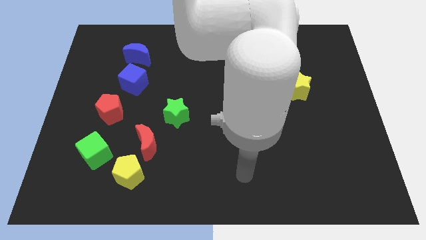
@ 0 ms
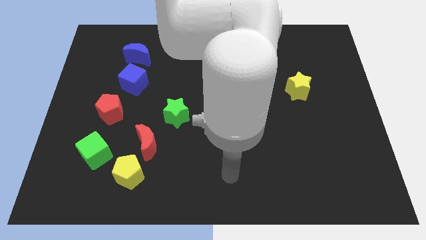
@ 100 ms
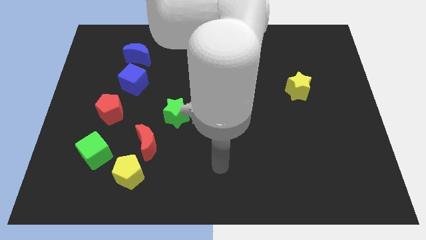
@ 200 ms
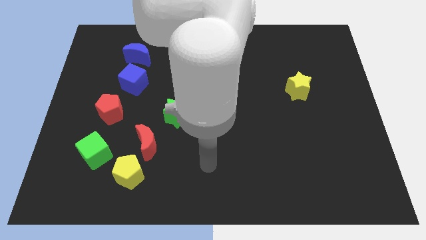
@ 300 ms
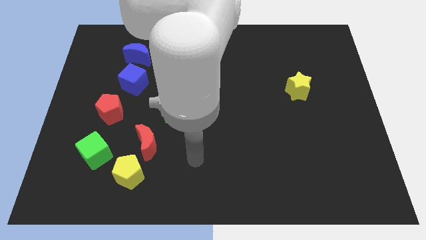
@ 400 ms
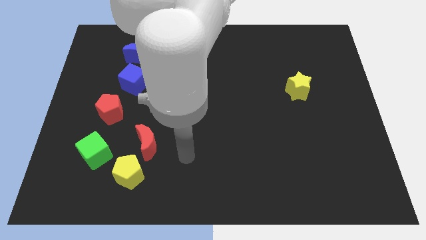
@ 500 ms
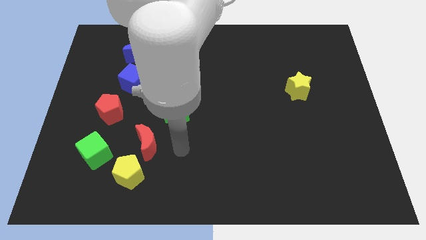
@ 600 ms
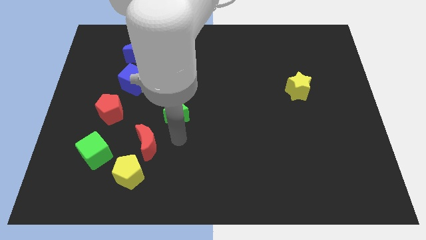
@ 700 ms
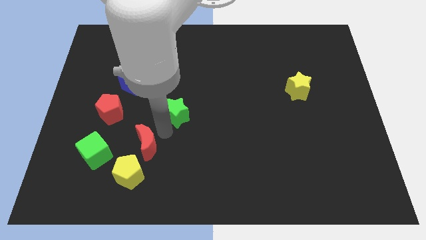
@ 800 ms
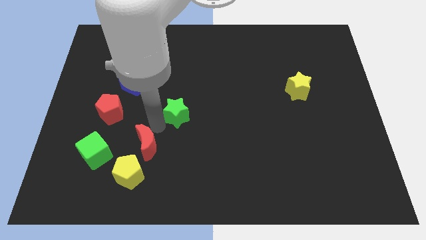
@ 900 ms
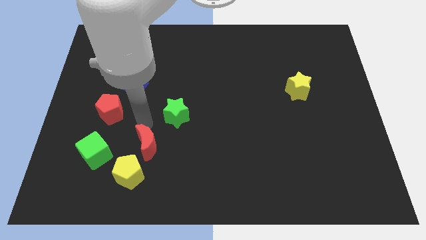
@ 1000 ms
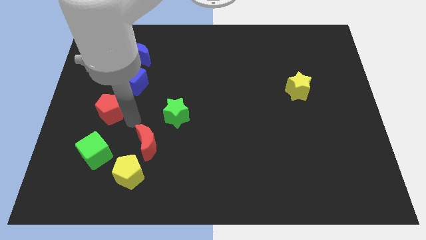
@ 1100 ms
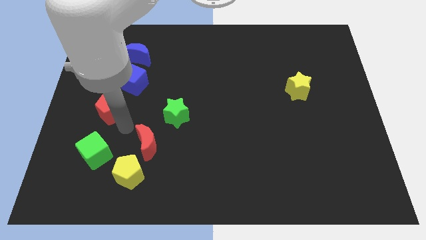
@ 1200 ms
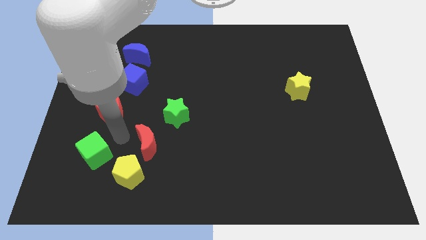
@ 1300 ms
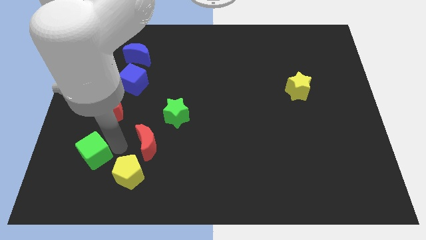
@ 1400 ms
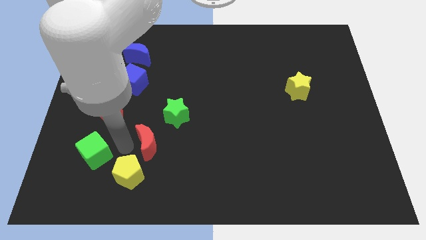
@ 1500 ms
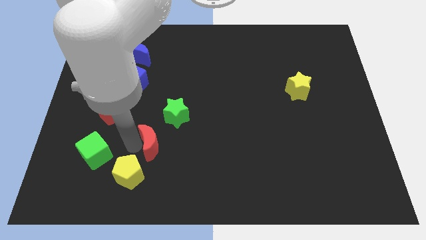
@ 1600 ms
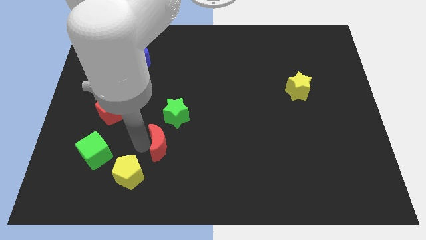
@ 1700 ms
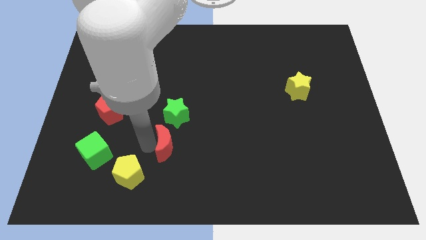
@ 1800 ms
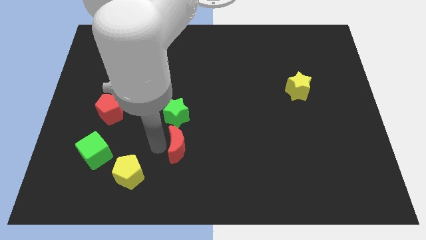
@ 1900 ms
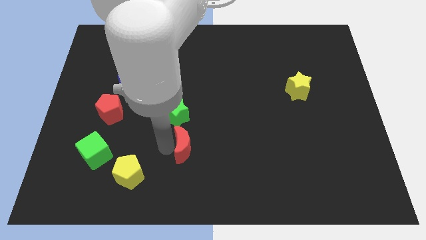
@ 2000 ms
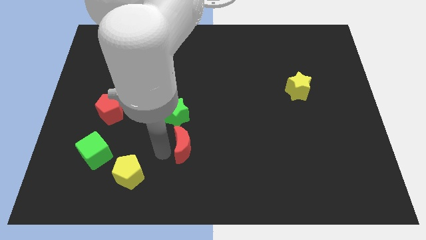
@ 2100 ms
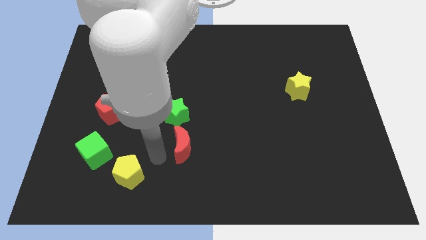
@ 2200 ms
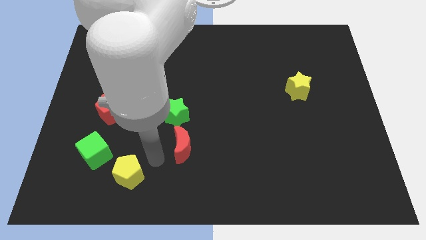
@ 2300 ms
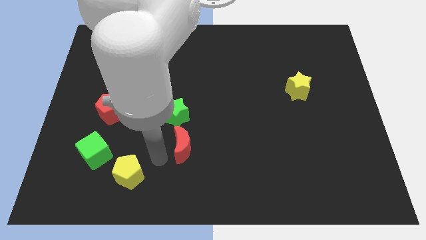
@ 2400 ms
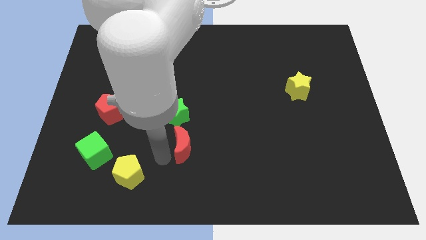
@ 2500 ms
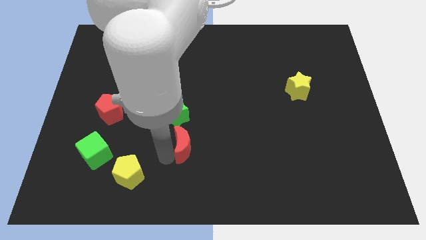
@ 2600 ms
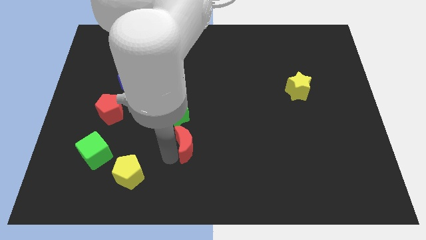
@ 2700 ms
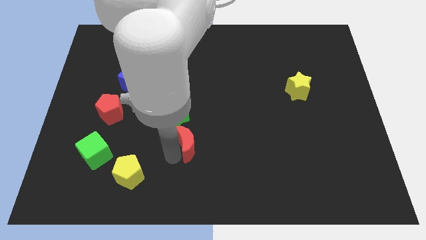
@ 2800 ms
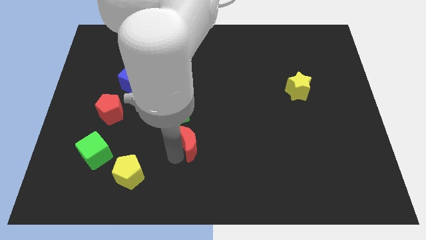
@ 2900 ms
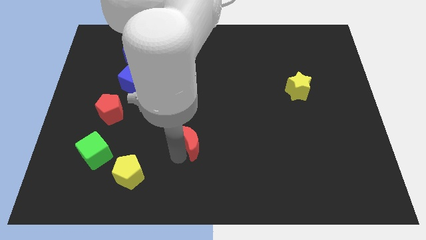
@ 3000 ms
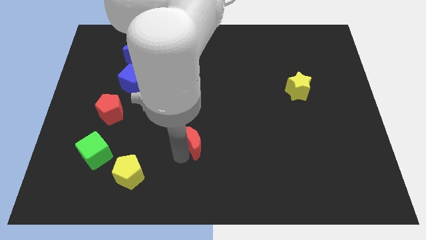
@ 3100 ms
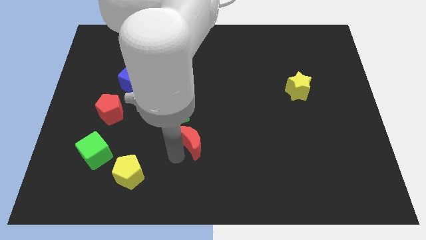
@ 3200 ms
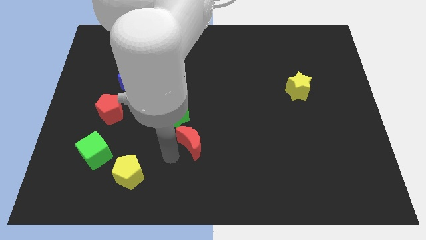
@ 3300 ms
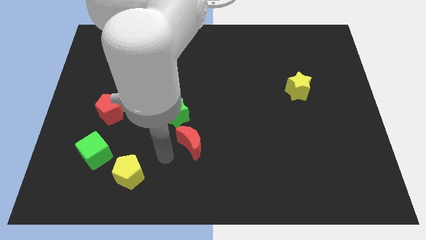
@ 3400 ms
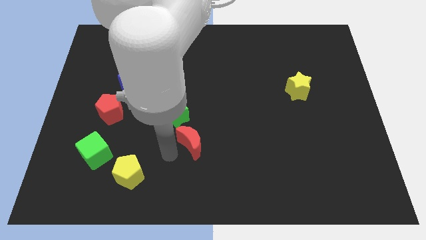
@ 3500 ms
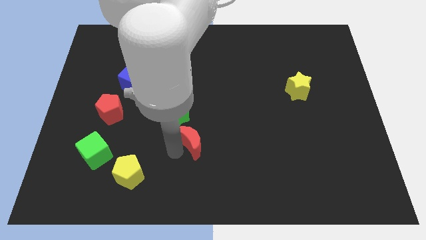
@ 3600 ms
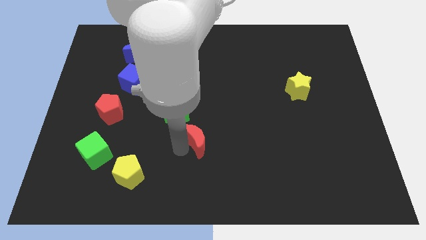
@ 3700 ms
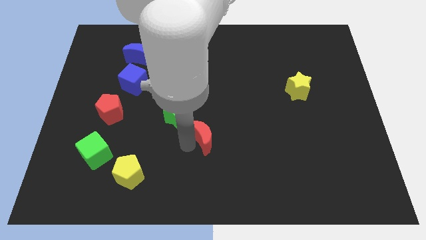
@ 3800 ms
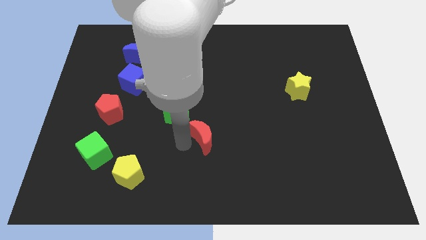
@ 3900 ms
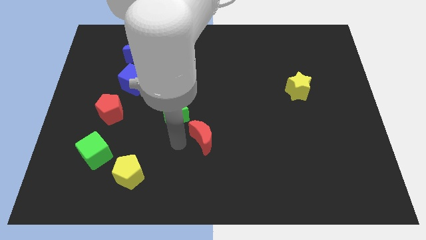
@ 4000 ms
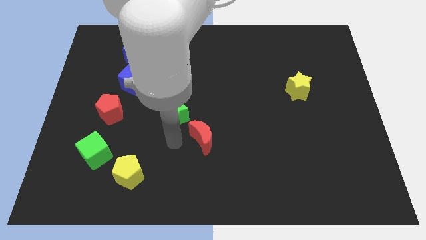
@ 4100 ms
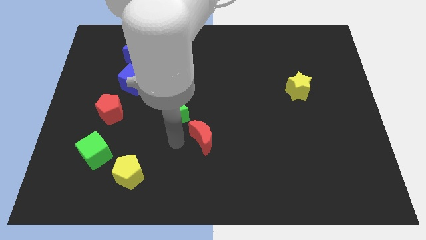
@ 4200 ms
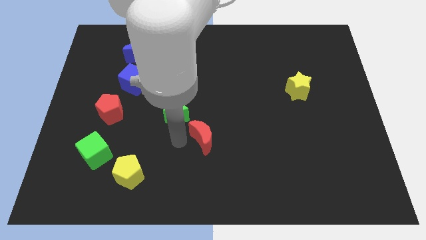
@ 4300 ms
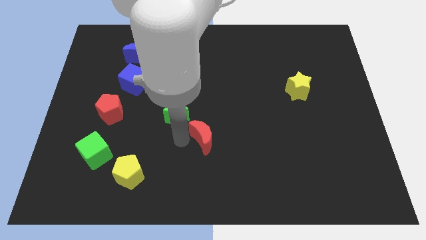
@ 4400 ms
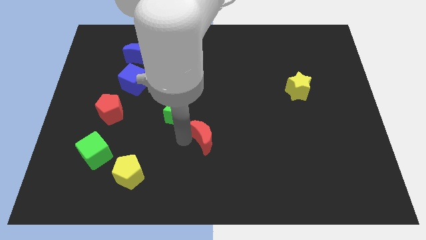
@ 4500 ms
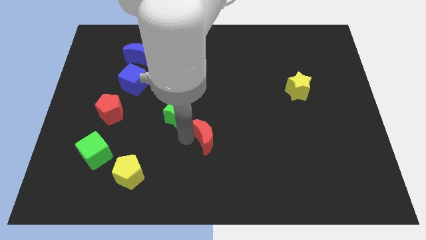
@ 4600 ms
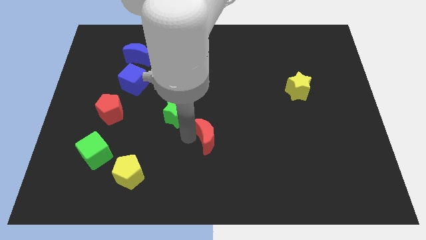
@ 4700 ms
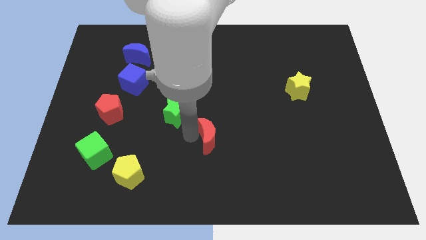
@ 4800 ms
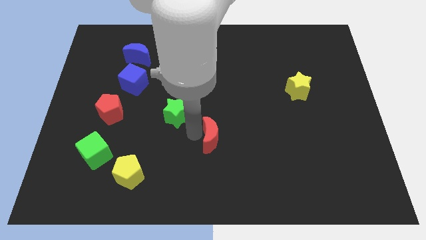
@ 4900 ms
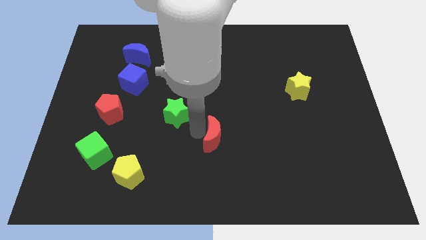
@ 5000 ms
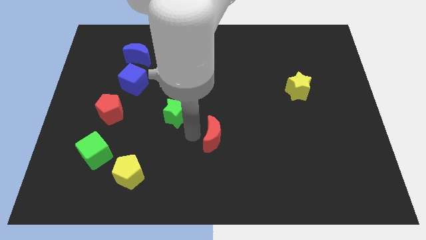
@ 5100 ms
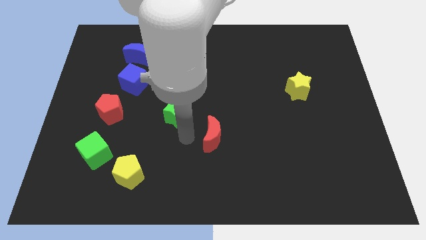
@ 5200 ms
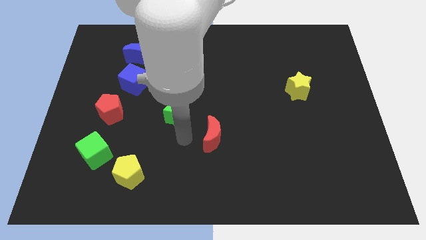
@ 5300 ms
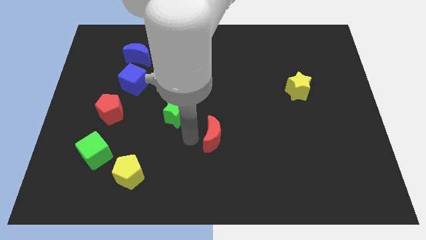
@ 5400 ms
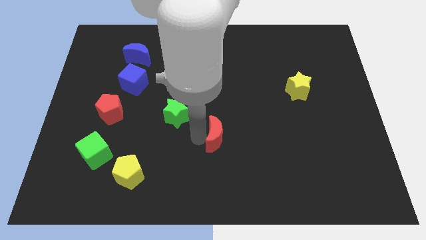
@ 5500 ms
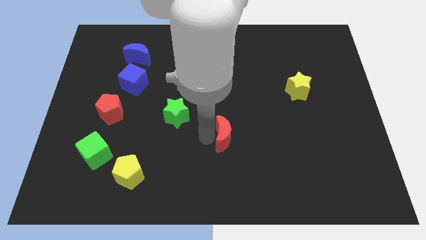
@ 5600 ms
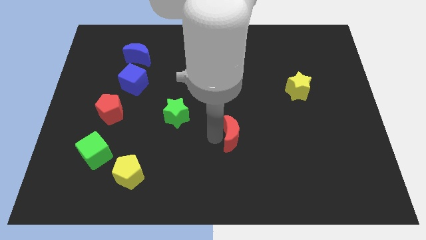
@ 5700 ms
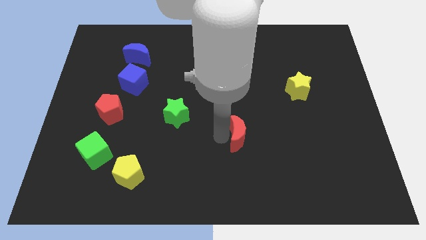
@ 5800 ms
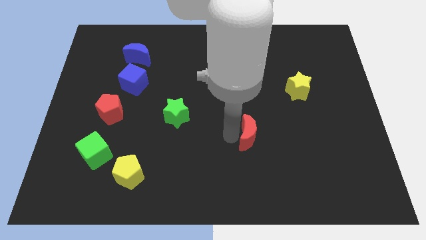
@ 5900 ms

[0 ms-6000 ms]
slide the red moon to the right

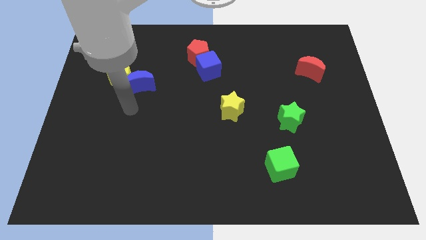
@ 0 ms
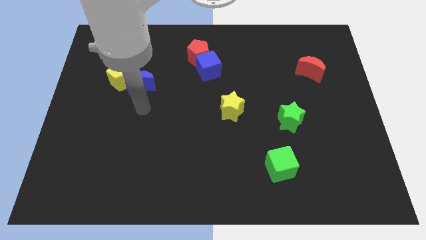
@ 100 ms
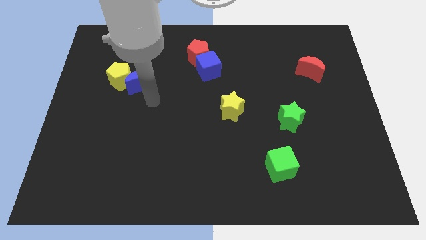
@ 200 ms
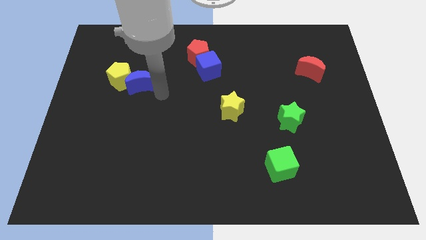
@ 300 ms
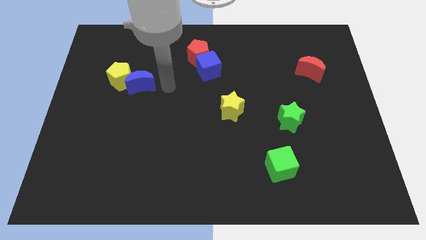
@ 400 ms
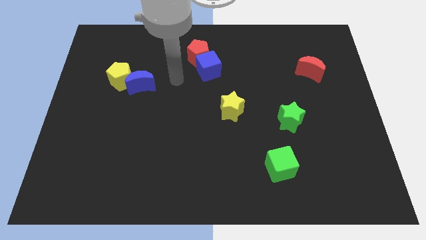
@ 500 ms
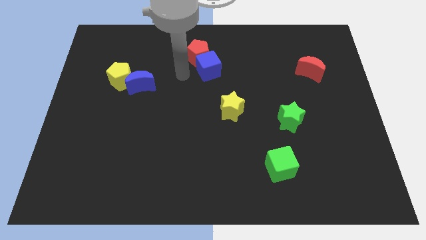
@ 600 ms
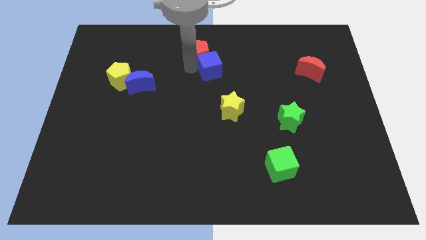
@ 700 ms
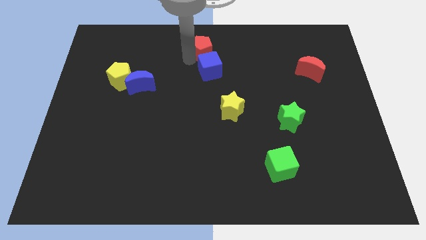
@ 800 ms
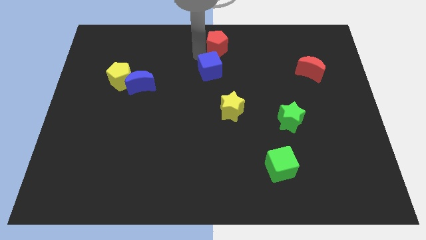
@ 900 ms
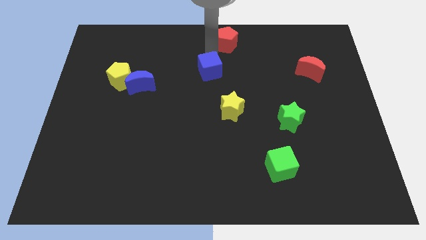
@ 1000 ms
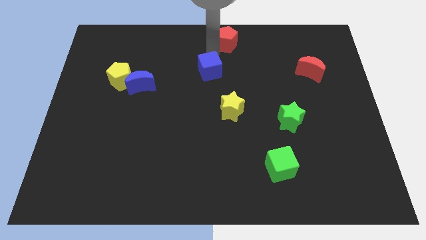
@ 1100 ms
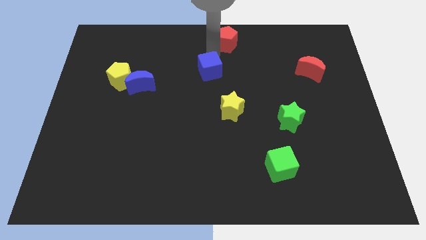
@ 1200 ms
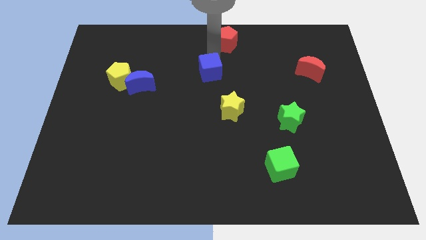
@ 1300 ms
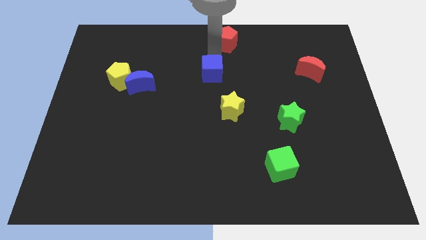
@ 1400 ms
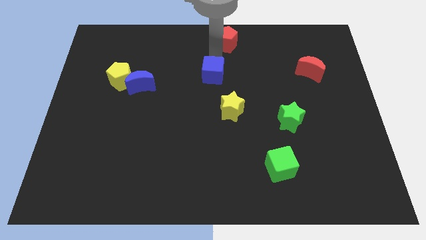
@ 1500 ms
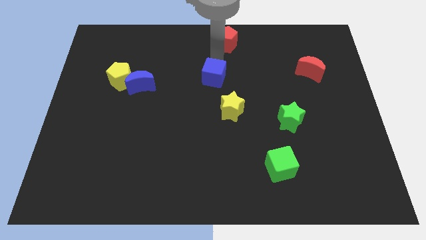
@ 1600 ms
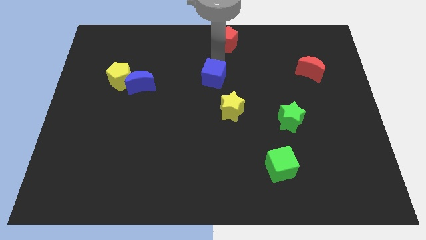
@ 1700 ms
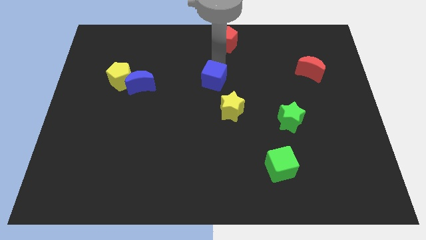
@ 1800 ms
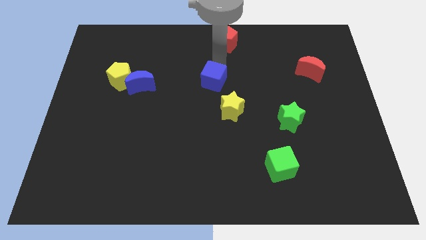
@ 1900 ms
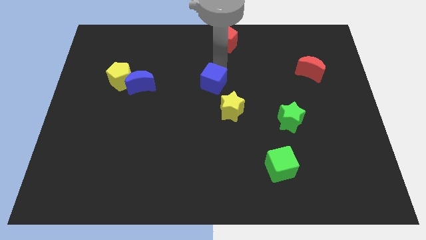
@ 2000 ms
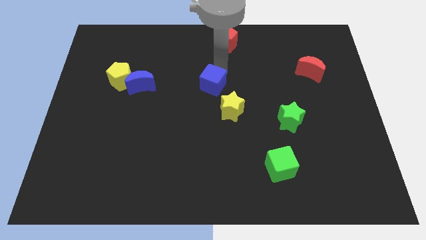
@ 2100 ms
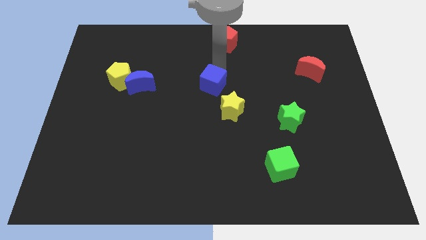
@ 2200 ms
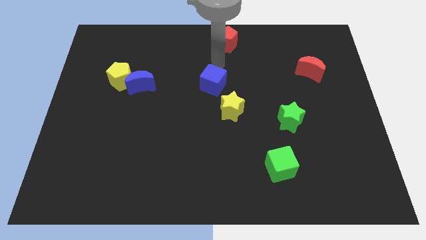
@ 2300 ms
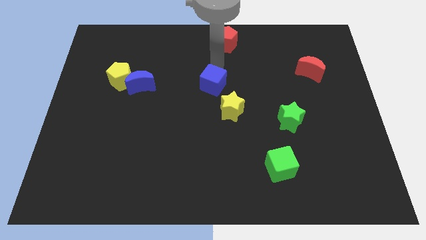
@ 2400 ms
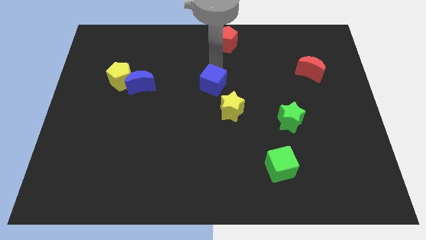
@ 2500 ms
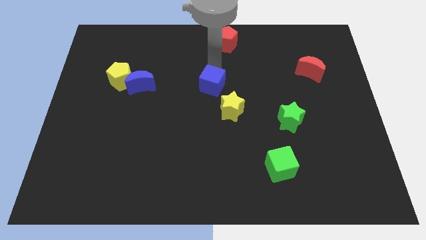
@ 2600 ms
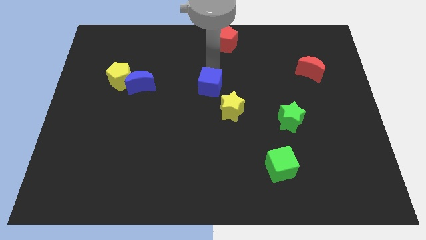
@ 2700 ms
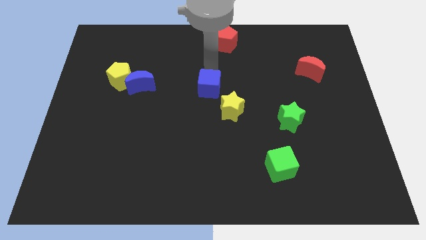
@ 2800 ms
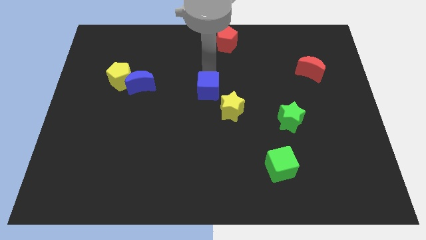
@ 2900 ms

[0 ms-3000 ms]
slightly push the blue cube downwards
